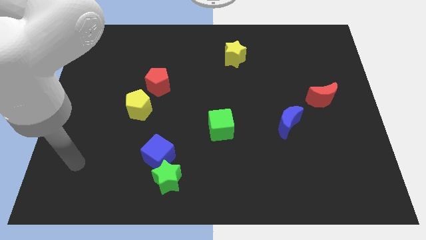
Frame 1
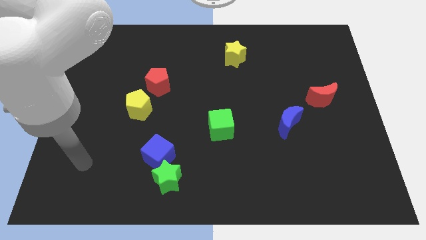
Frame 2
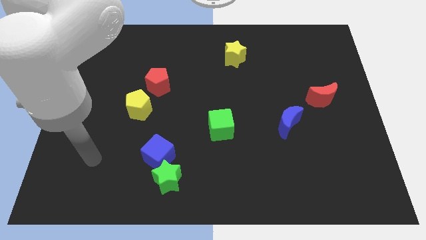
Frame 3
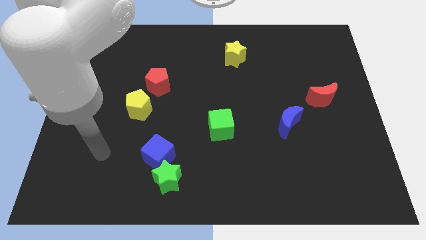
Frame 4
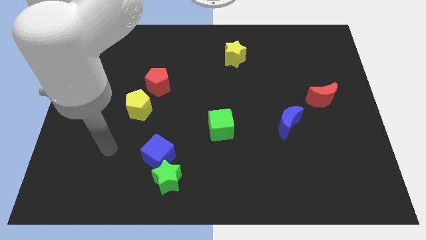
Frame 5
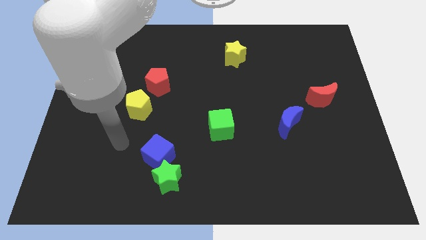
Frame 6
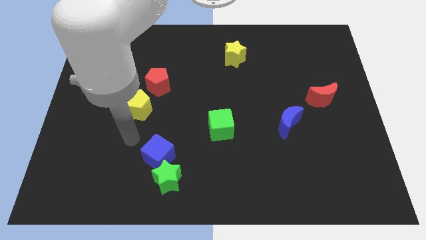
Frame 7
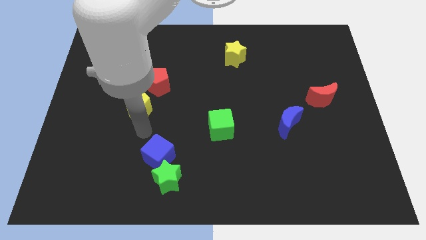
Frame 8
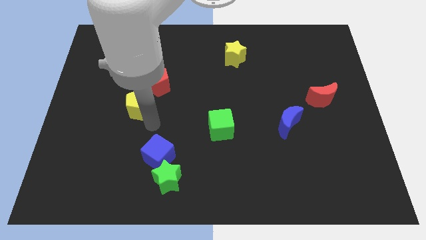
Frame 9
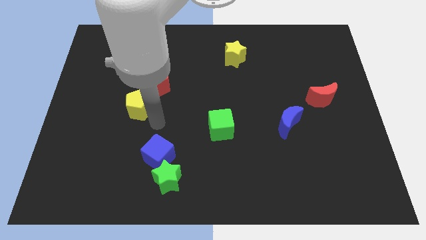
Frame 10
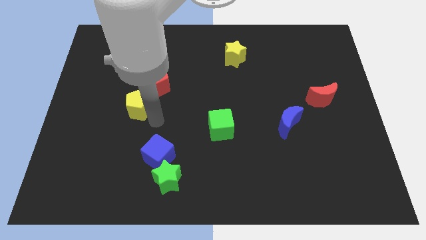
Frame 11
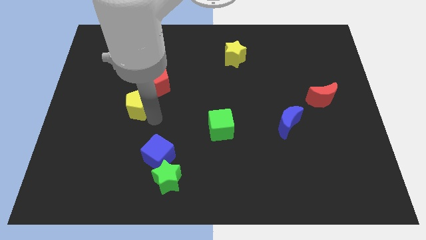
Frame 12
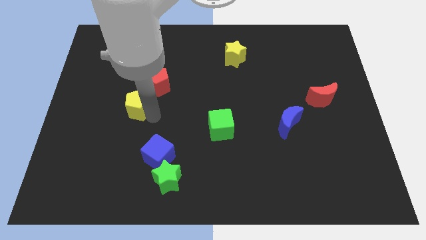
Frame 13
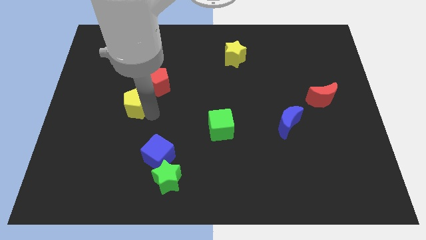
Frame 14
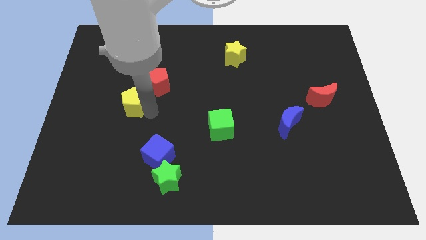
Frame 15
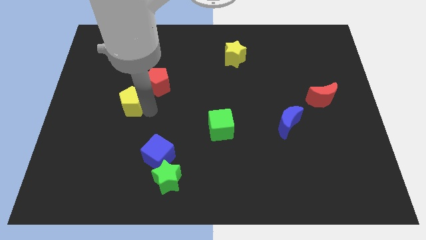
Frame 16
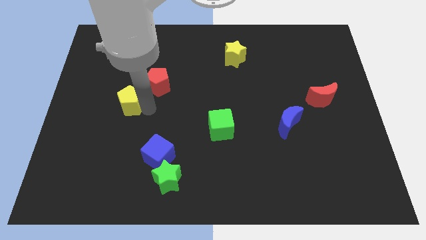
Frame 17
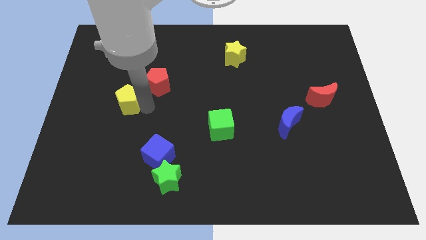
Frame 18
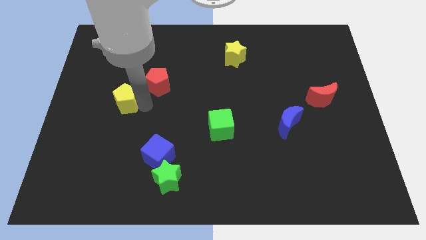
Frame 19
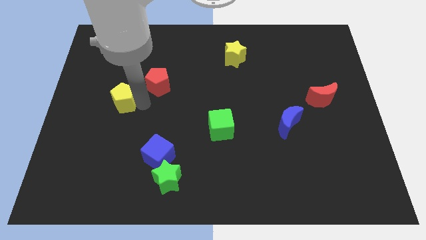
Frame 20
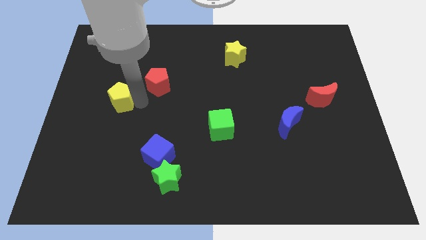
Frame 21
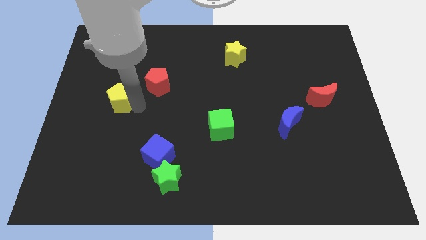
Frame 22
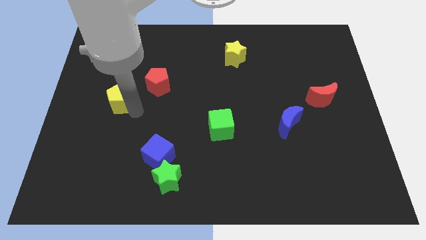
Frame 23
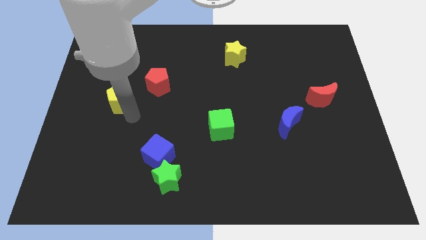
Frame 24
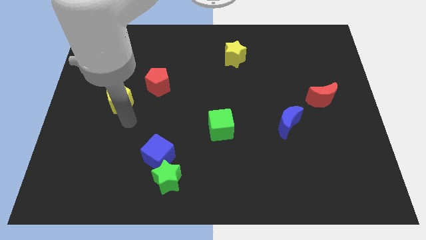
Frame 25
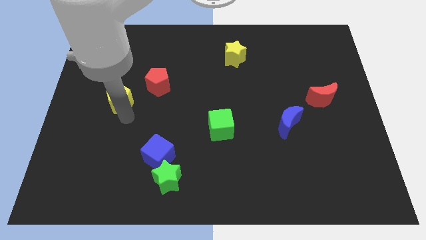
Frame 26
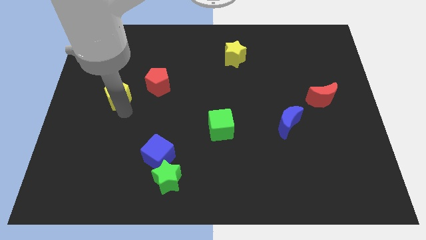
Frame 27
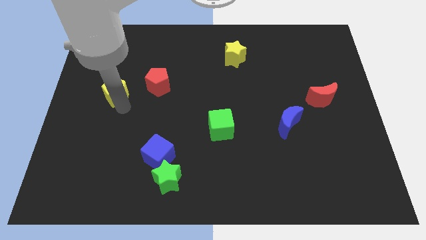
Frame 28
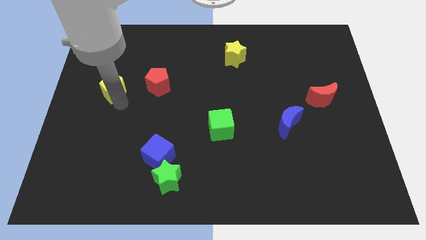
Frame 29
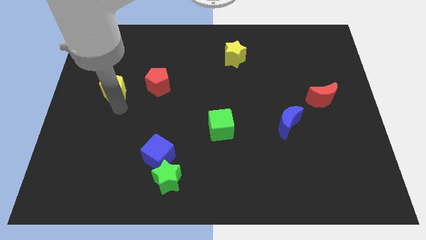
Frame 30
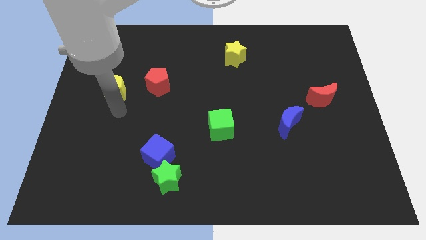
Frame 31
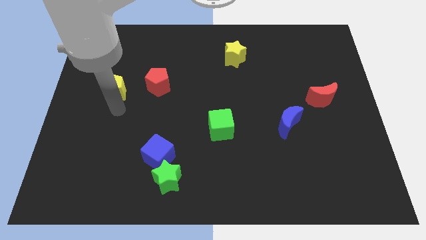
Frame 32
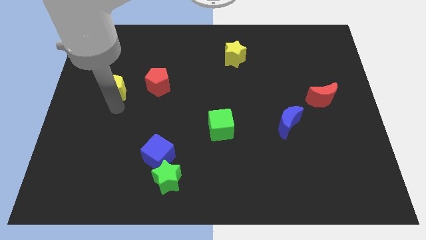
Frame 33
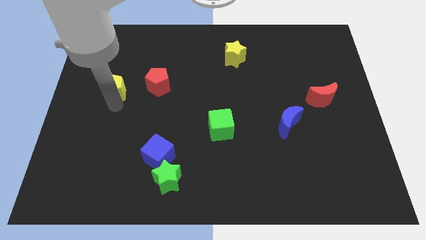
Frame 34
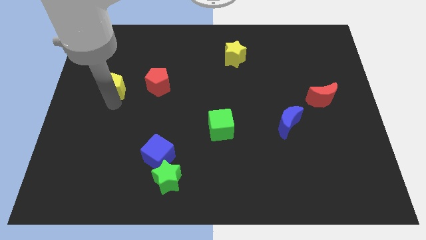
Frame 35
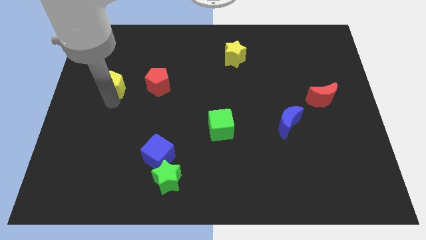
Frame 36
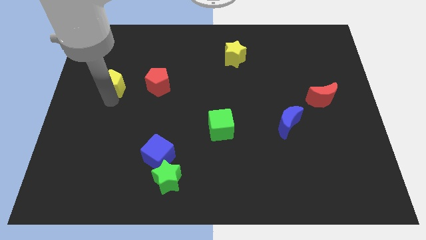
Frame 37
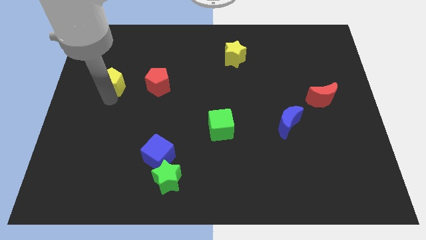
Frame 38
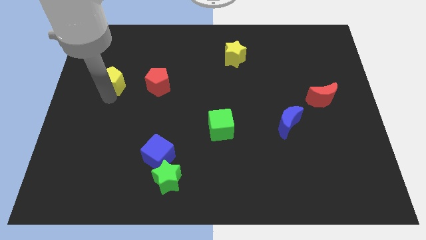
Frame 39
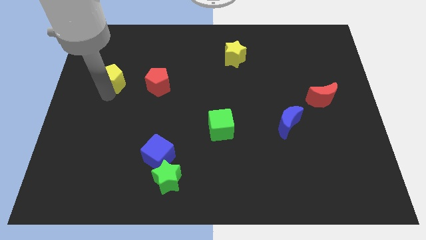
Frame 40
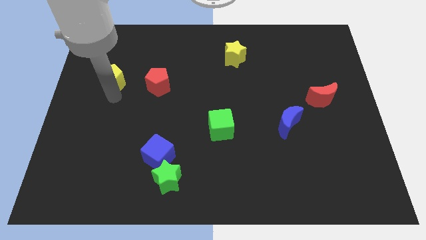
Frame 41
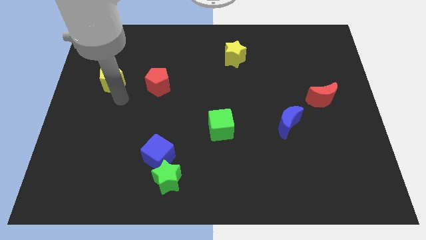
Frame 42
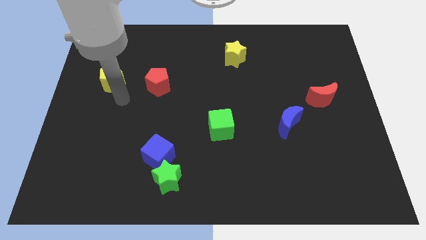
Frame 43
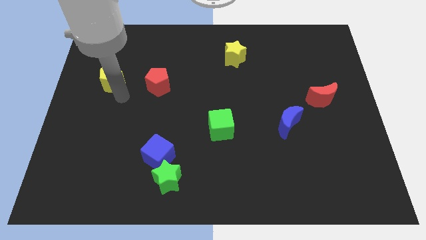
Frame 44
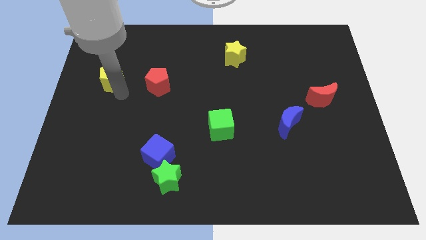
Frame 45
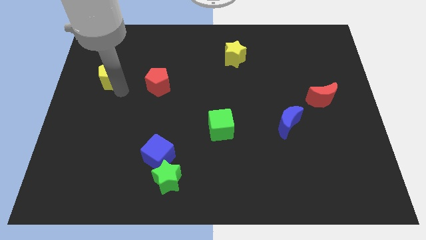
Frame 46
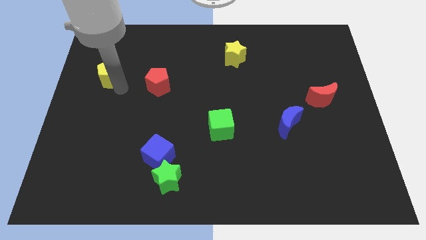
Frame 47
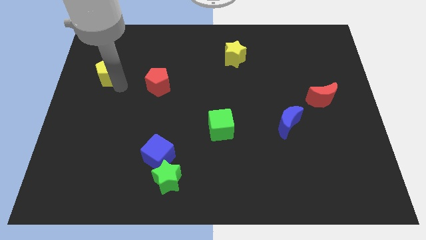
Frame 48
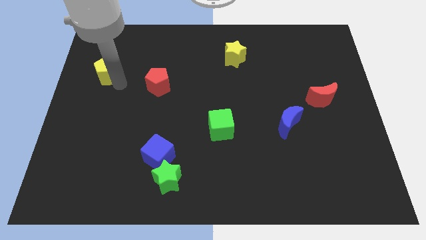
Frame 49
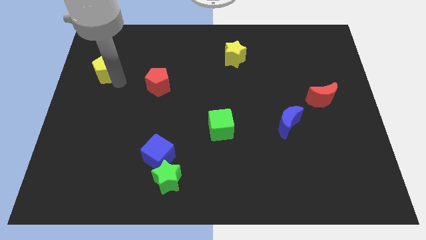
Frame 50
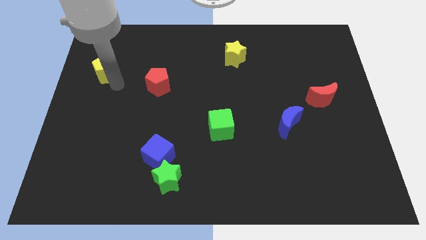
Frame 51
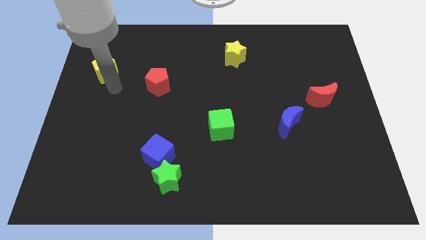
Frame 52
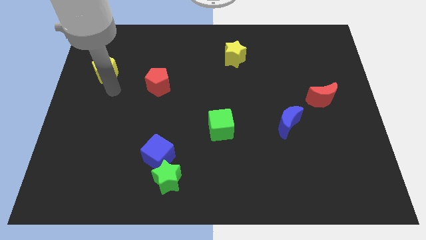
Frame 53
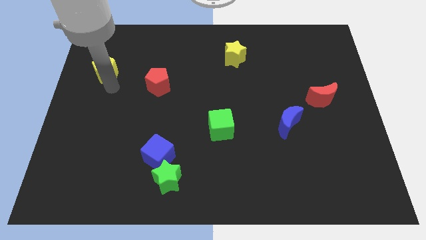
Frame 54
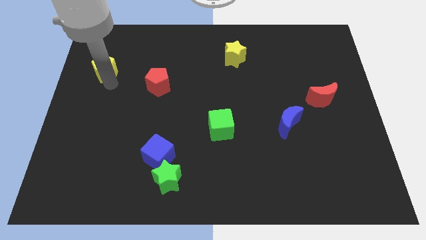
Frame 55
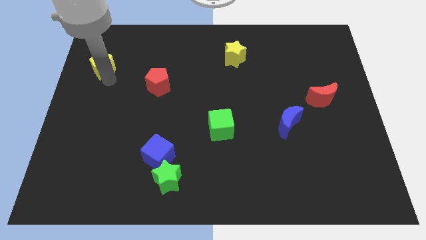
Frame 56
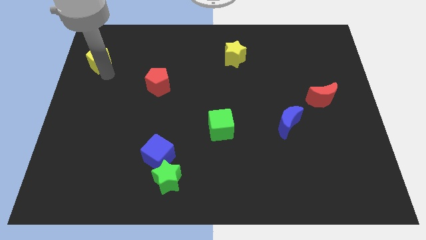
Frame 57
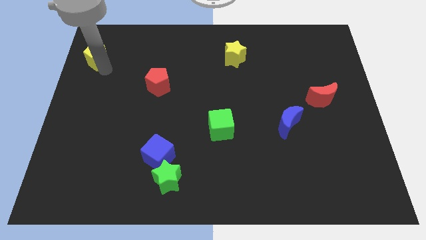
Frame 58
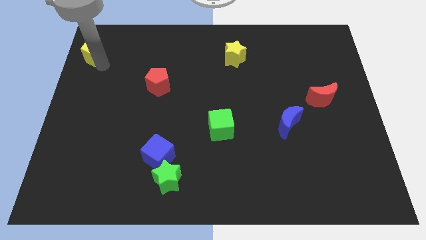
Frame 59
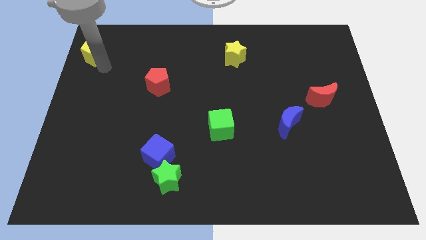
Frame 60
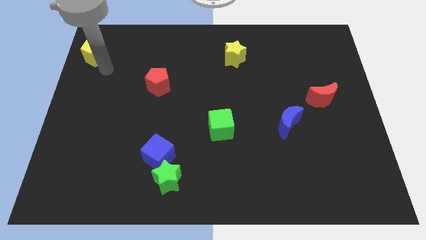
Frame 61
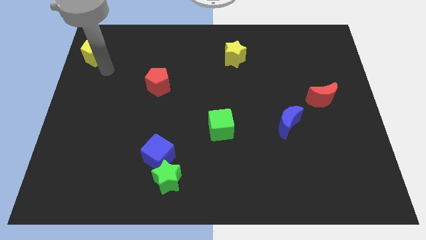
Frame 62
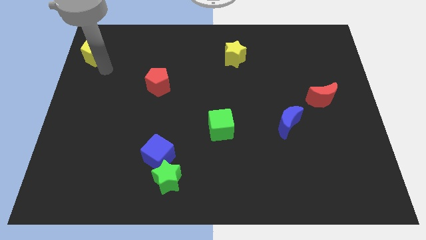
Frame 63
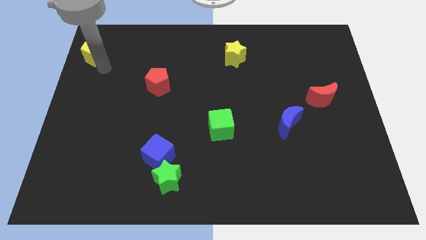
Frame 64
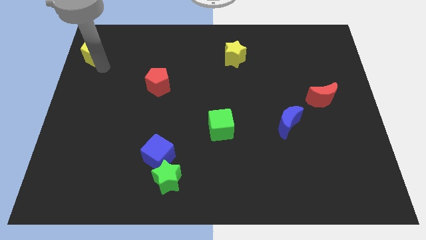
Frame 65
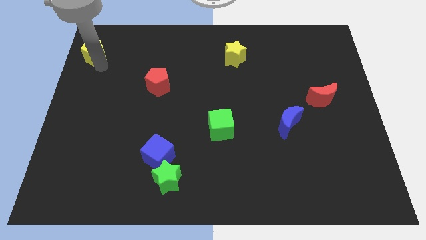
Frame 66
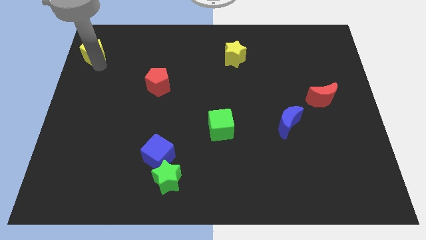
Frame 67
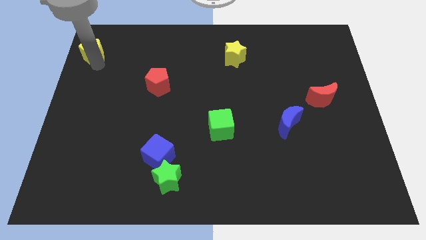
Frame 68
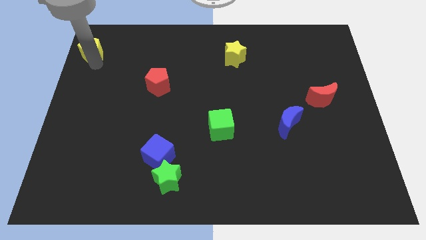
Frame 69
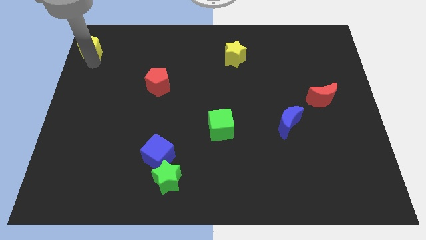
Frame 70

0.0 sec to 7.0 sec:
put the yellow pentagon to the top left of the board

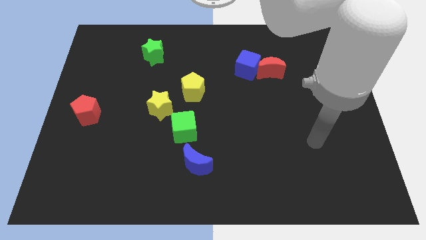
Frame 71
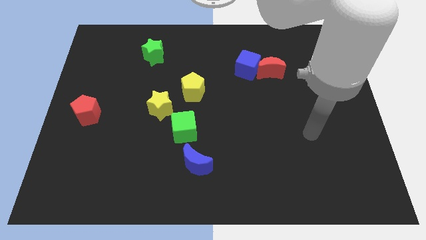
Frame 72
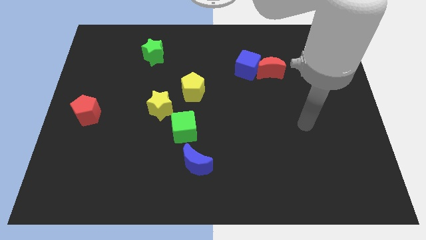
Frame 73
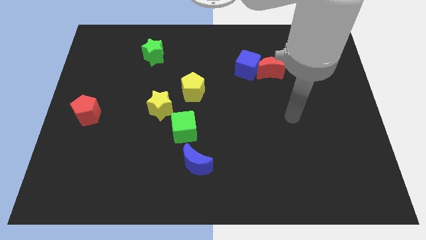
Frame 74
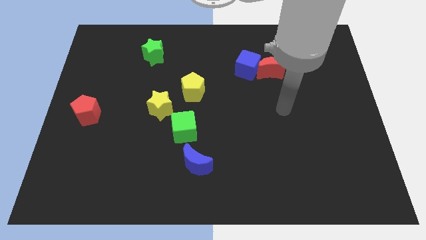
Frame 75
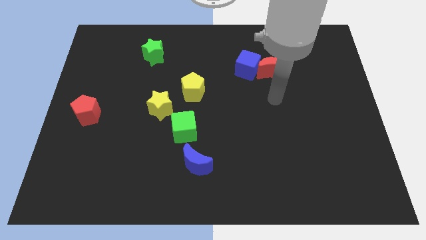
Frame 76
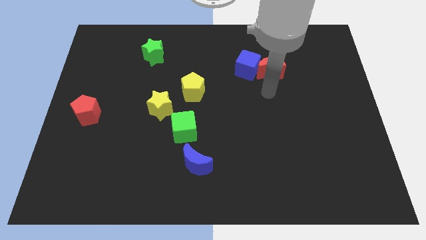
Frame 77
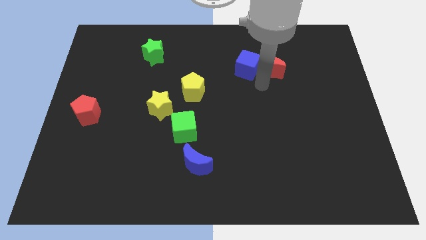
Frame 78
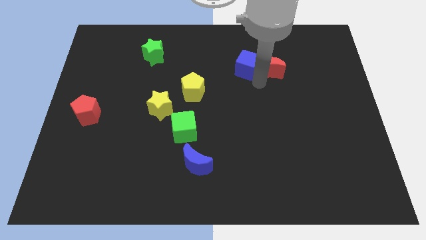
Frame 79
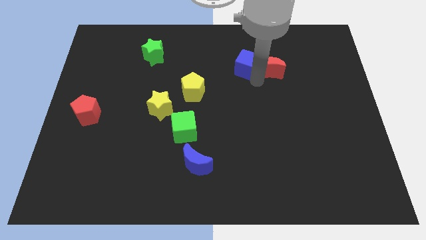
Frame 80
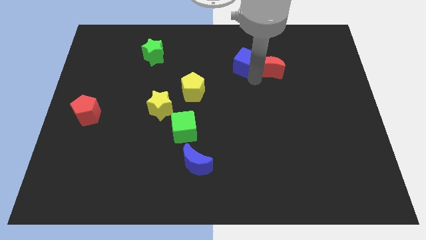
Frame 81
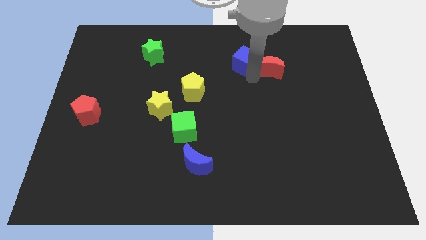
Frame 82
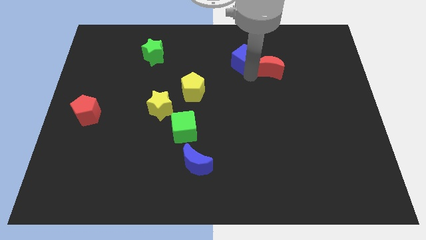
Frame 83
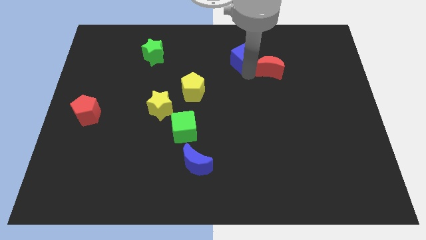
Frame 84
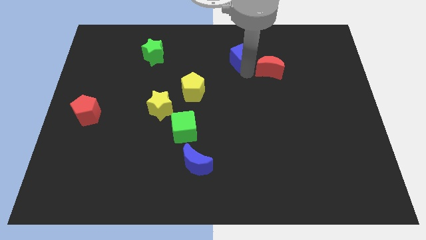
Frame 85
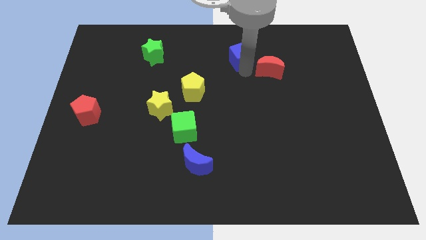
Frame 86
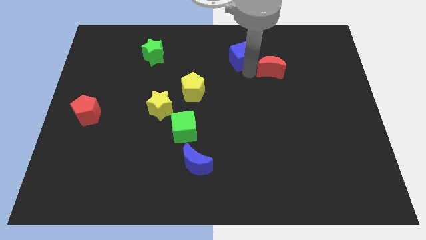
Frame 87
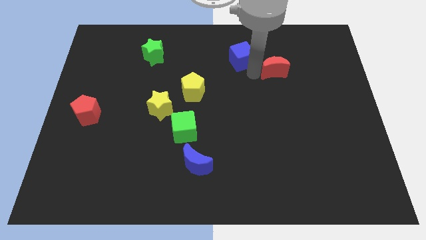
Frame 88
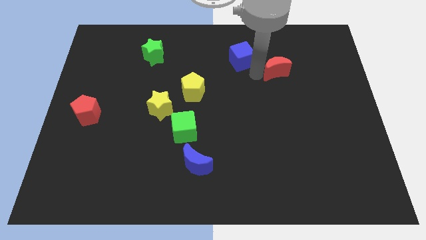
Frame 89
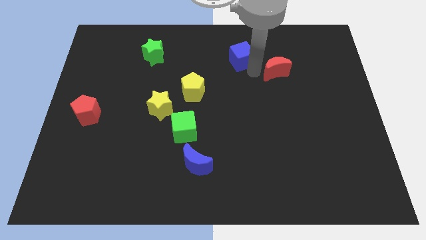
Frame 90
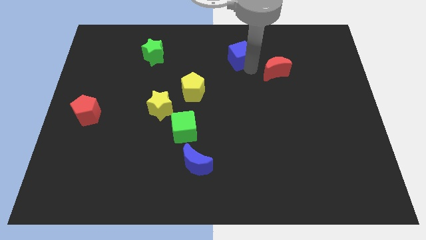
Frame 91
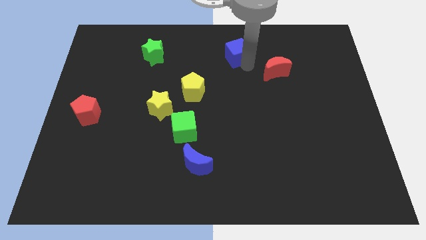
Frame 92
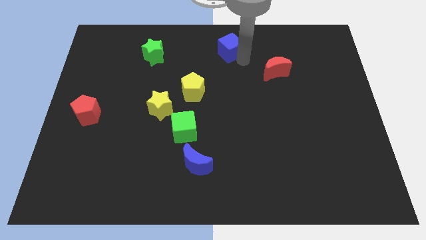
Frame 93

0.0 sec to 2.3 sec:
push the blue cube to the top
